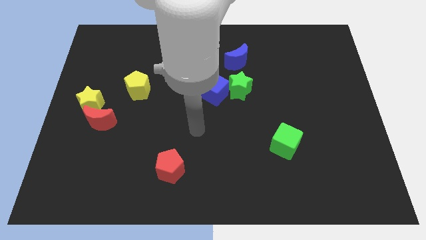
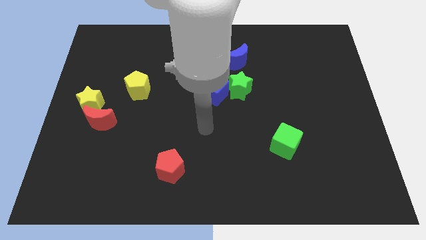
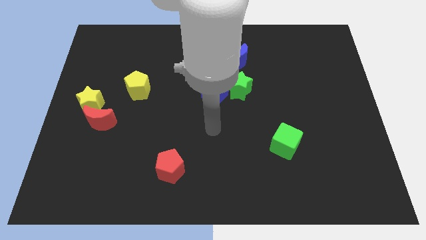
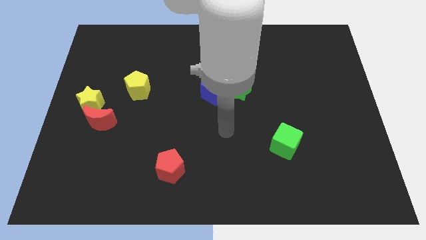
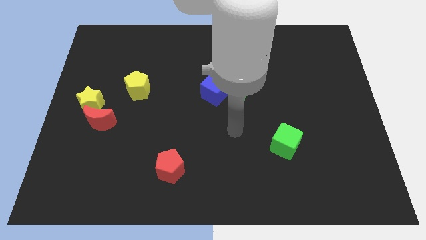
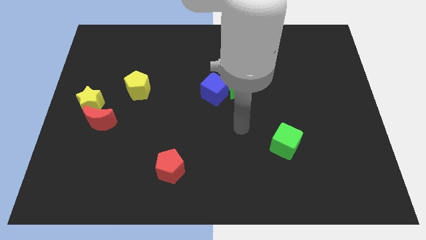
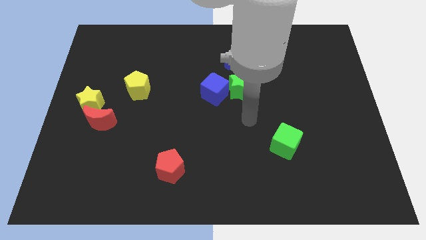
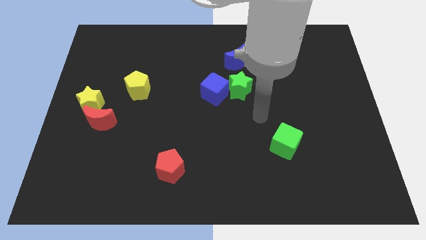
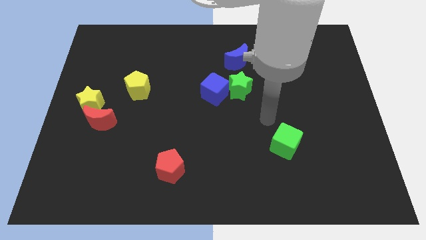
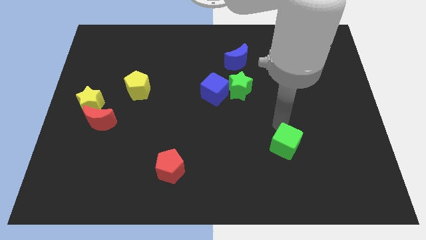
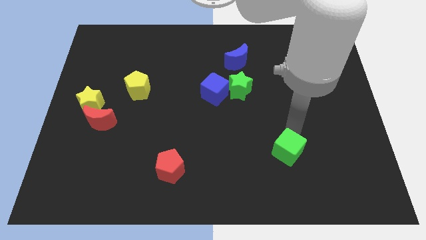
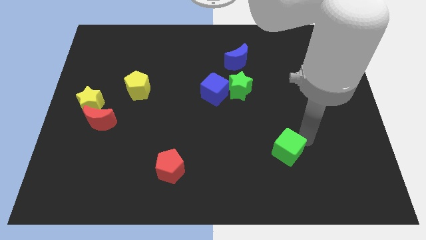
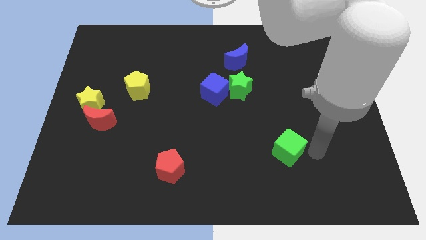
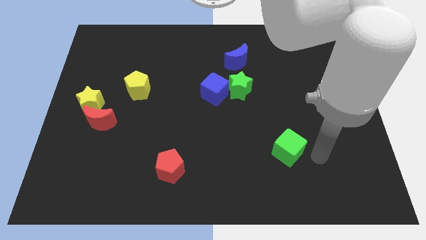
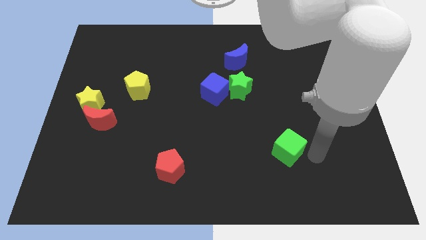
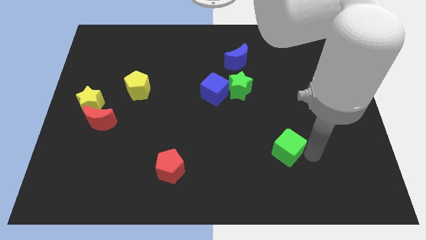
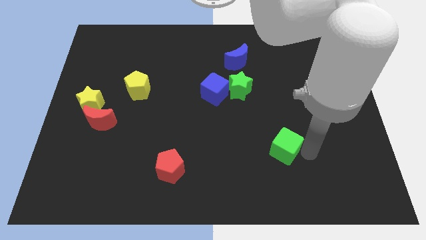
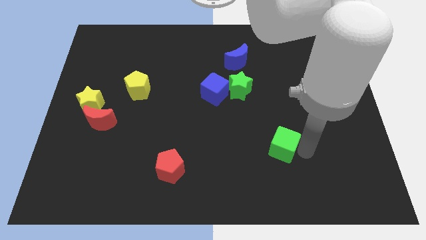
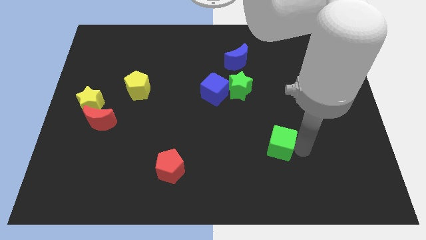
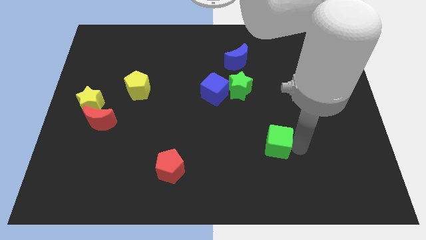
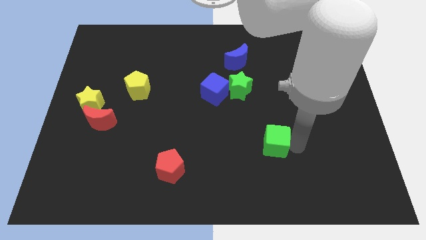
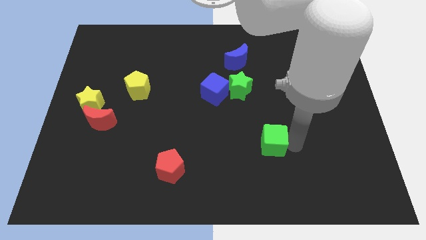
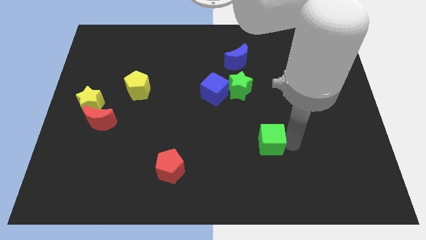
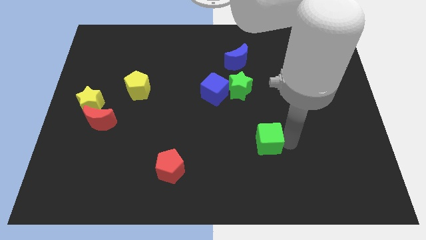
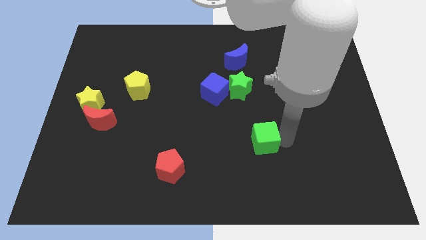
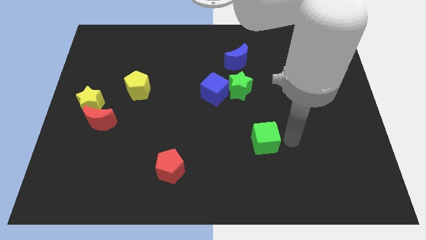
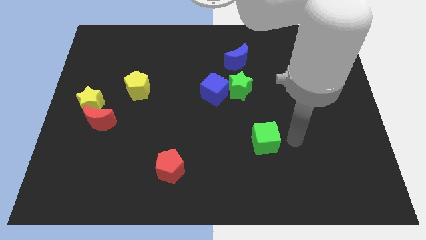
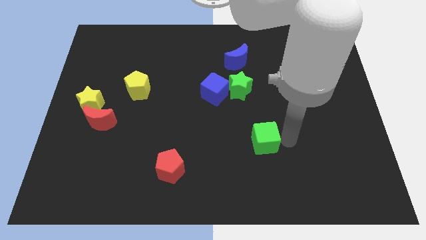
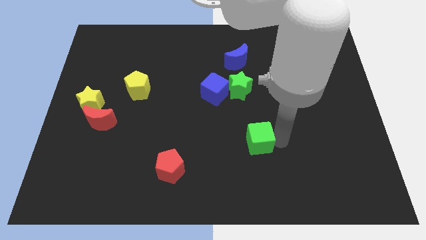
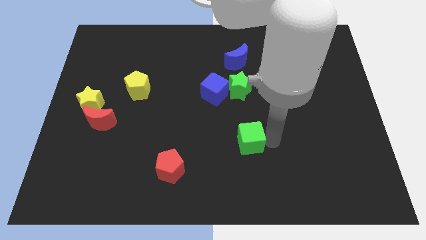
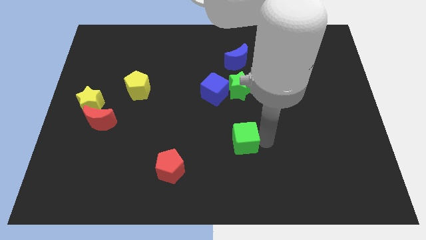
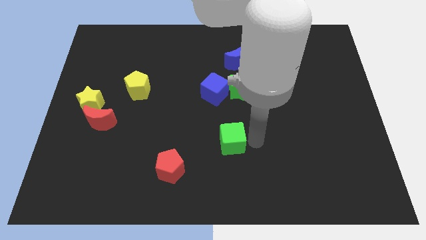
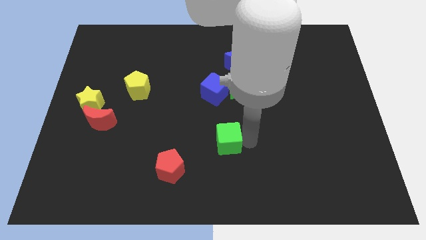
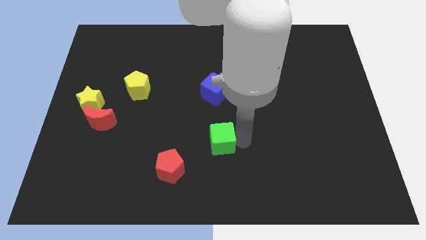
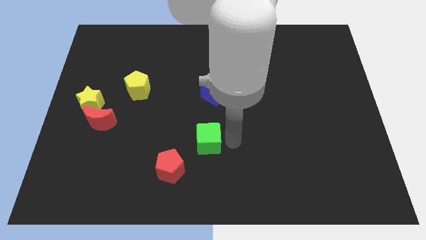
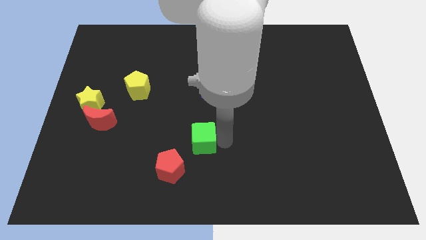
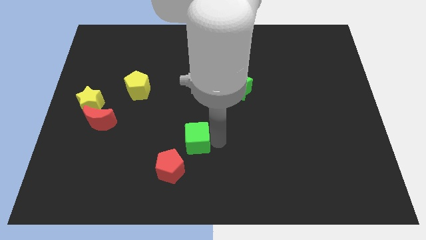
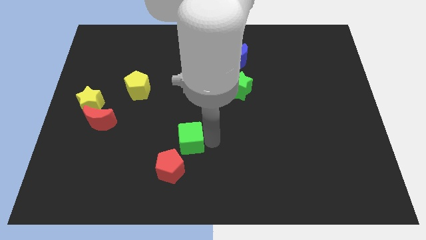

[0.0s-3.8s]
slide the green cube left

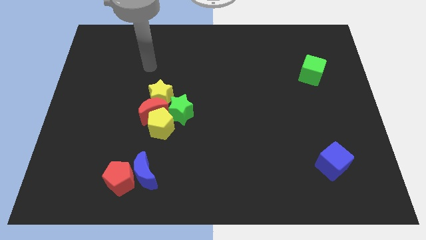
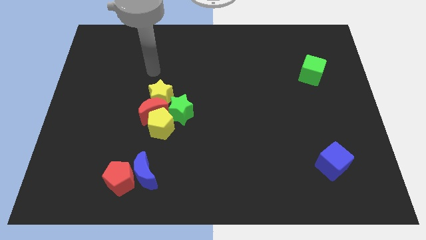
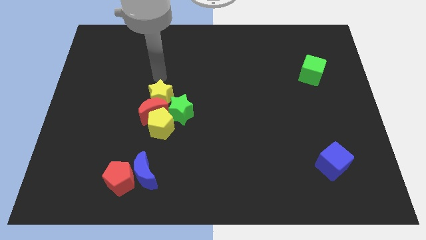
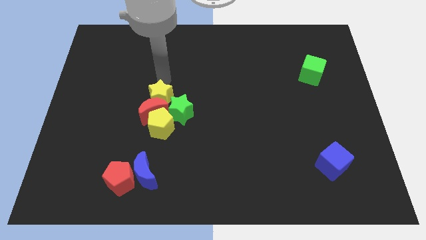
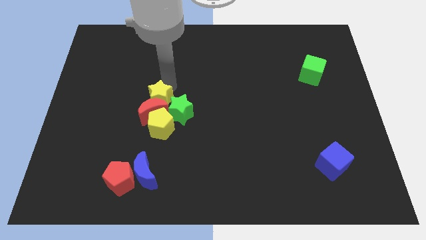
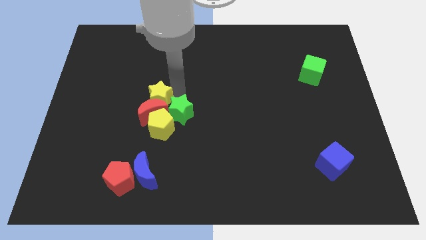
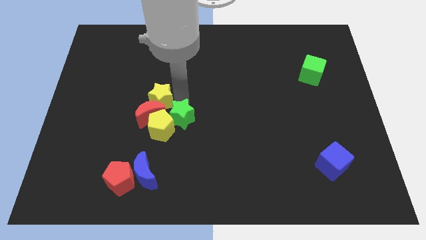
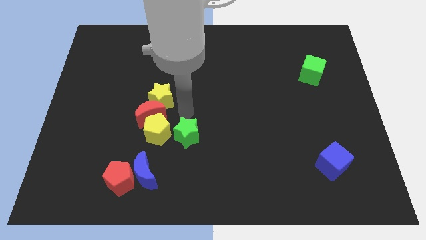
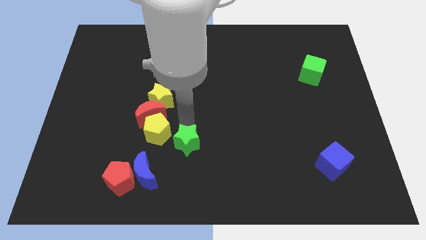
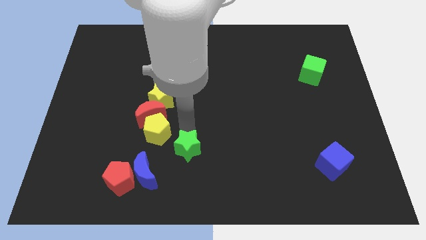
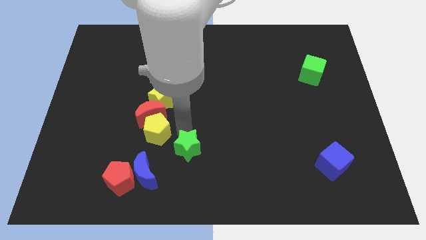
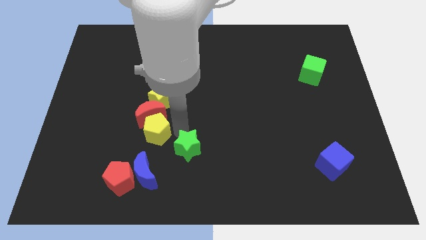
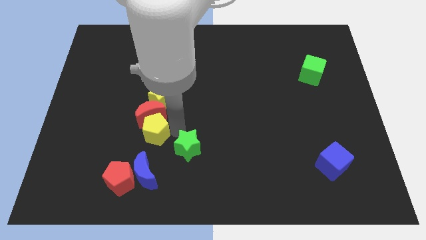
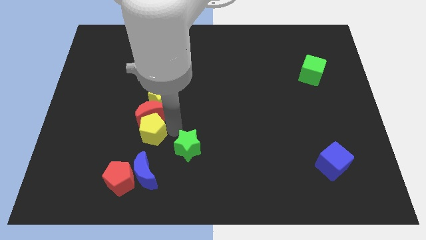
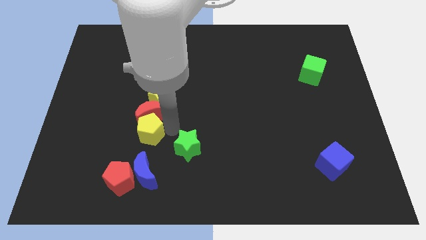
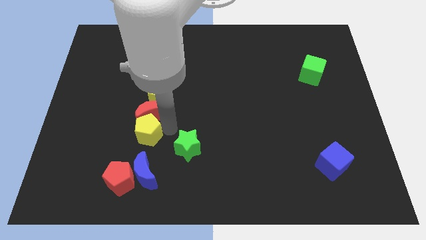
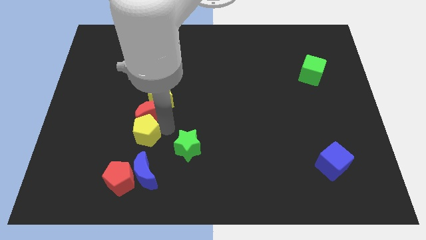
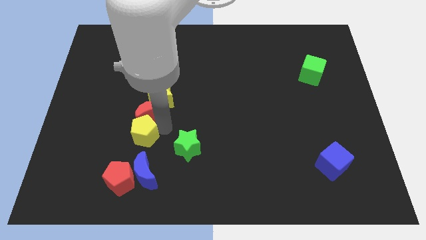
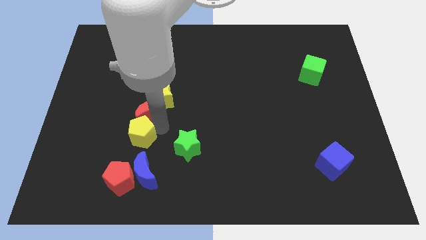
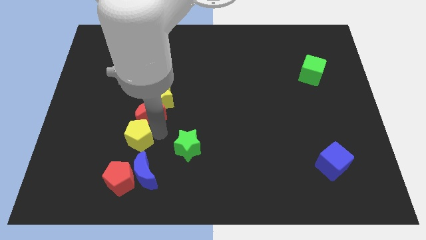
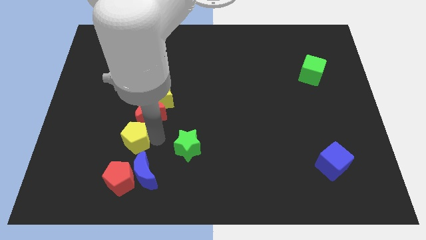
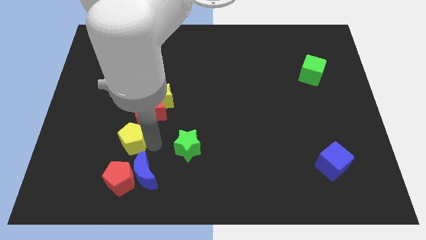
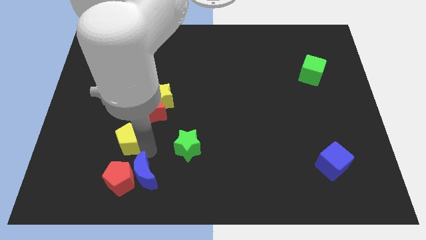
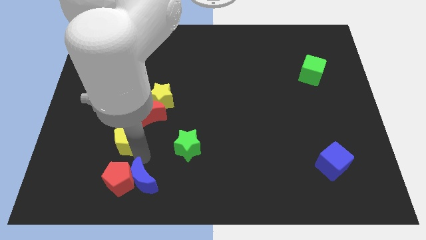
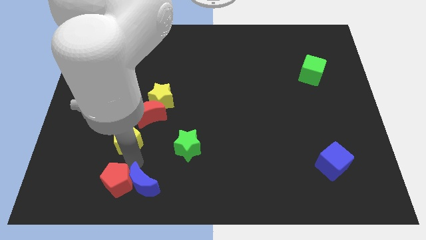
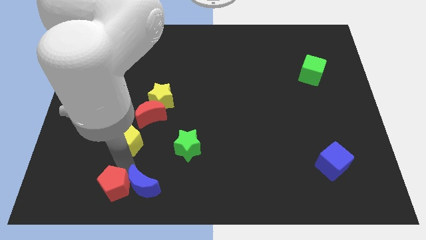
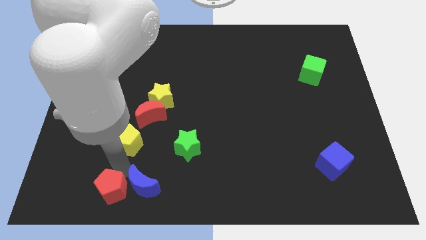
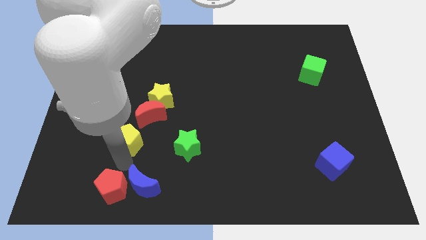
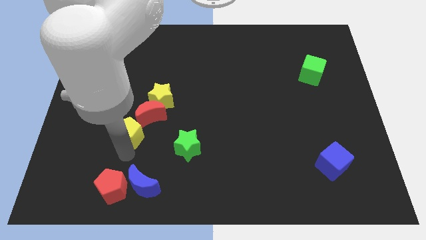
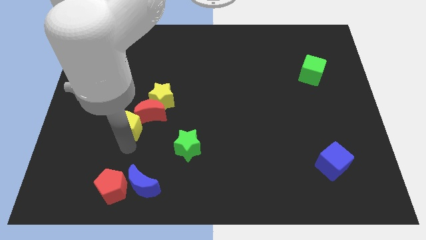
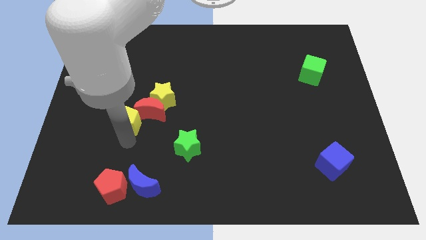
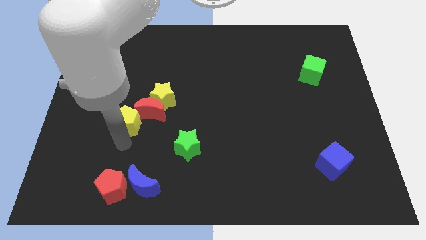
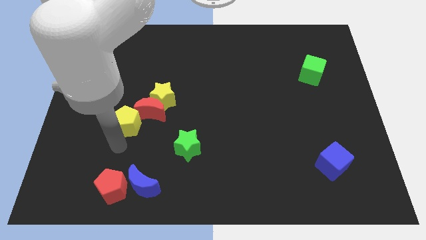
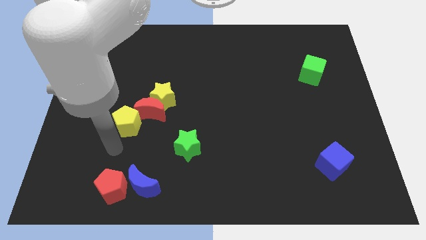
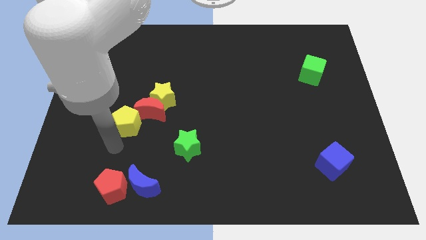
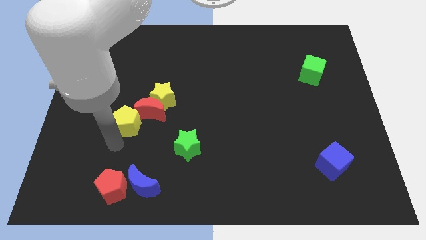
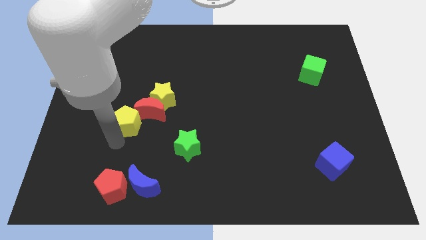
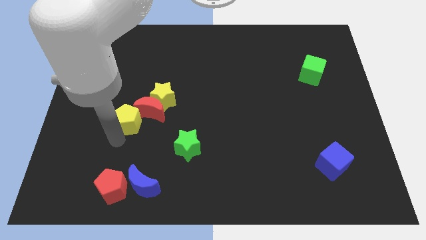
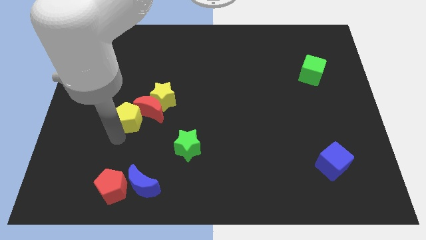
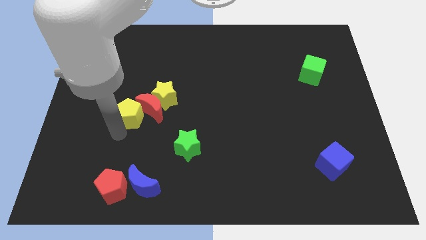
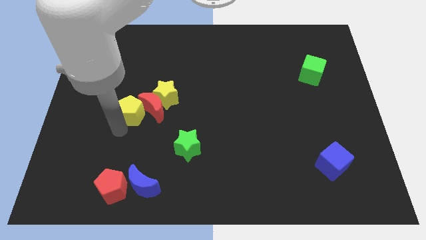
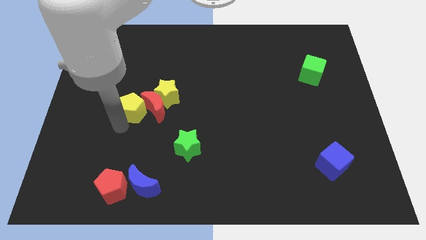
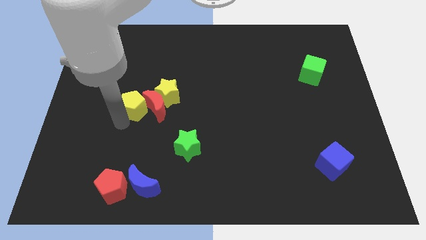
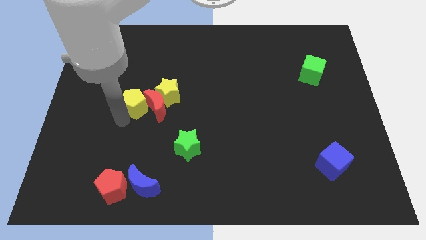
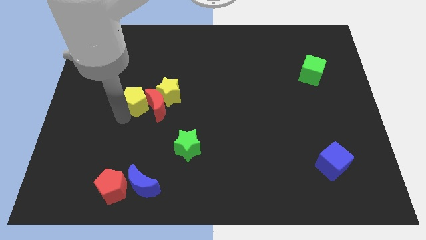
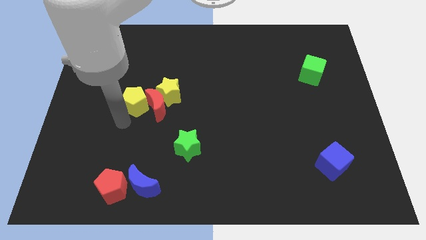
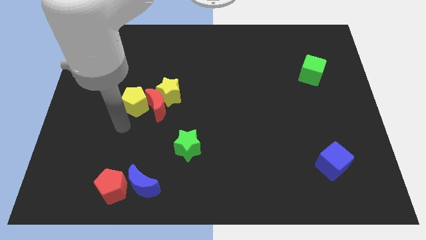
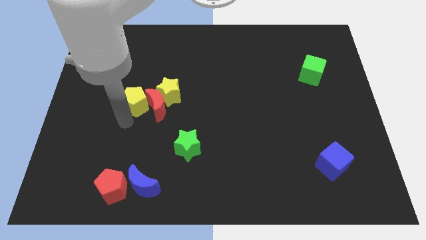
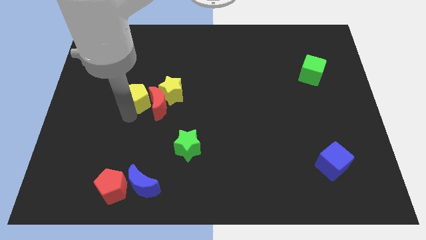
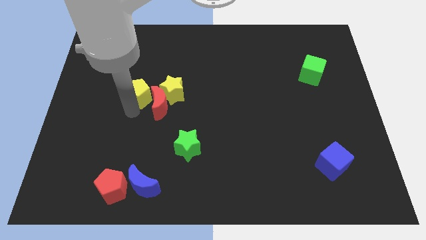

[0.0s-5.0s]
slightly push the yellow pentagon up
